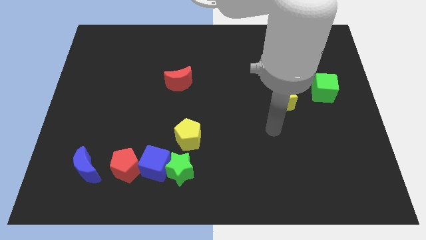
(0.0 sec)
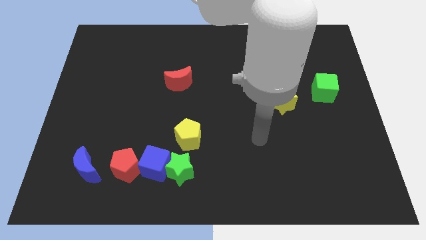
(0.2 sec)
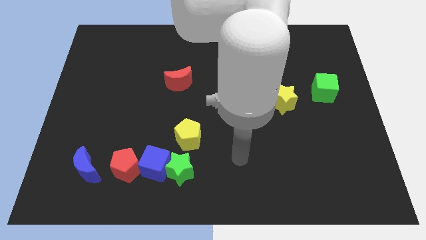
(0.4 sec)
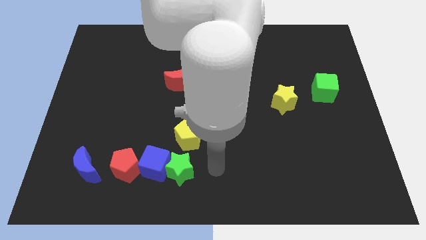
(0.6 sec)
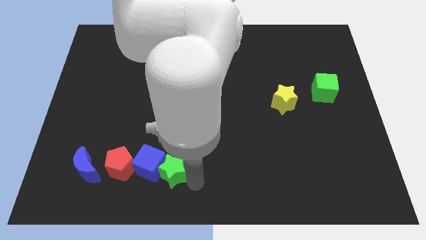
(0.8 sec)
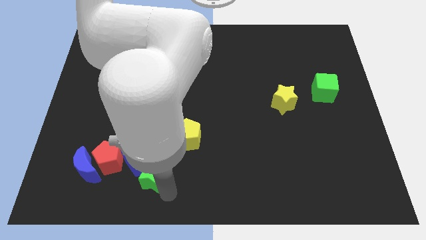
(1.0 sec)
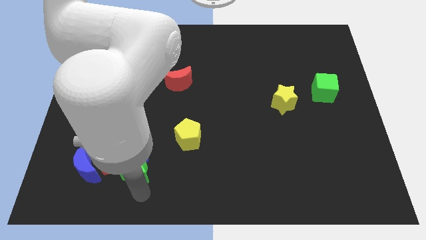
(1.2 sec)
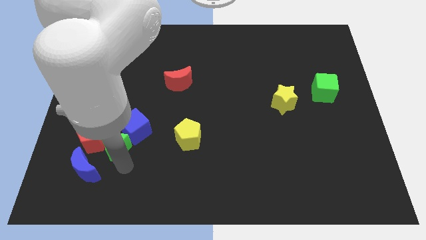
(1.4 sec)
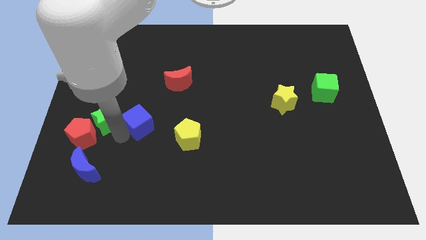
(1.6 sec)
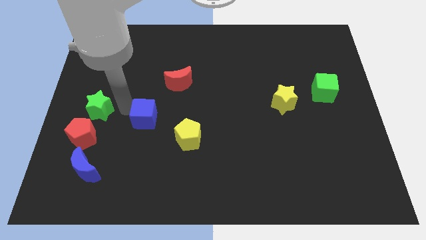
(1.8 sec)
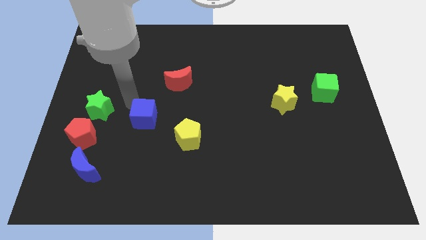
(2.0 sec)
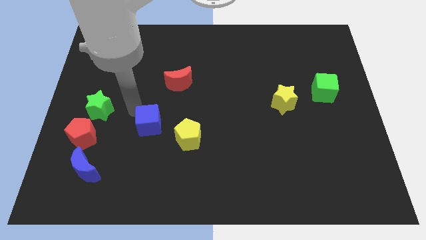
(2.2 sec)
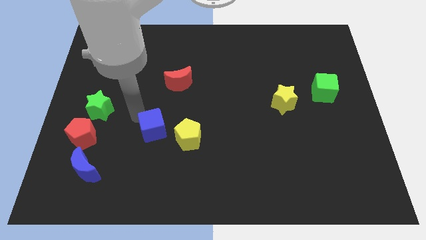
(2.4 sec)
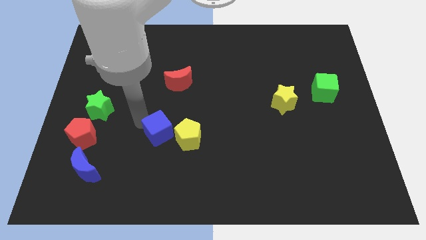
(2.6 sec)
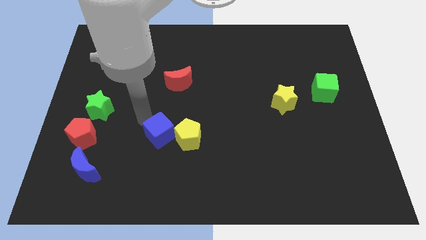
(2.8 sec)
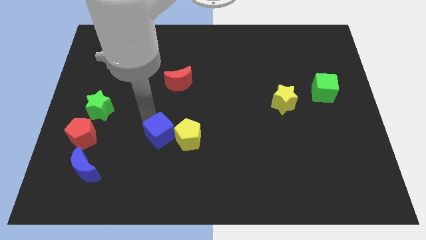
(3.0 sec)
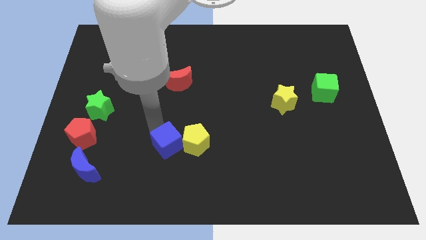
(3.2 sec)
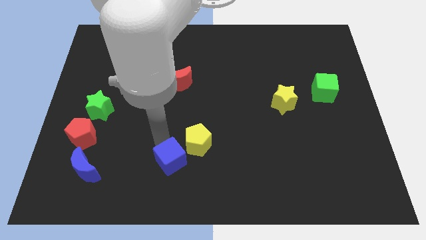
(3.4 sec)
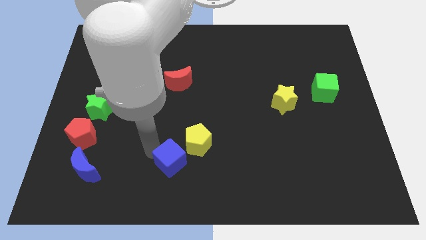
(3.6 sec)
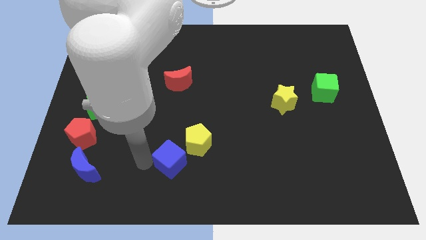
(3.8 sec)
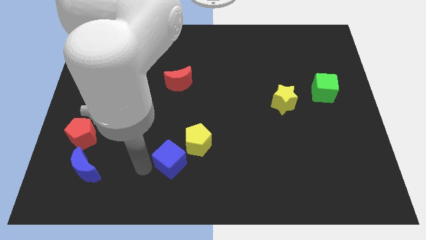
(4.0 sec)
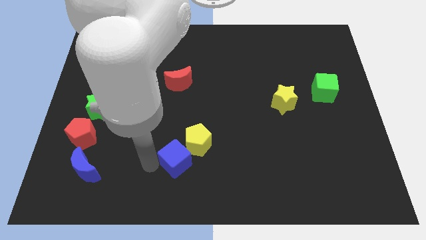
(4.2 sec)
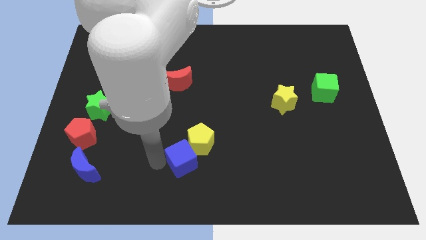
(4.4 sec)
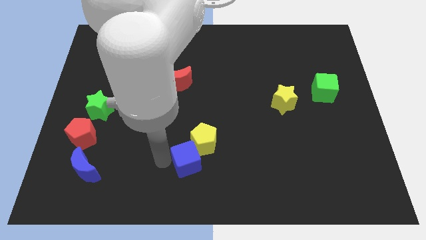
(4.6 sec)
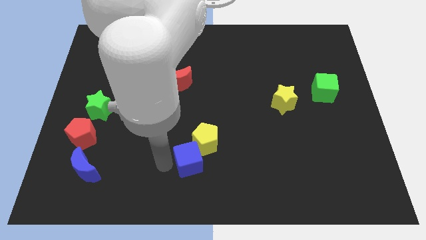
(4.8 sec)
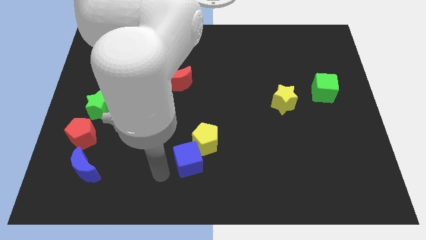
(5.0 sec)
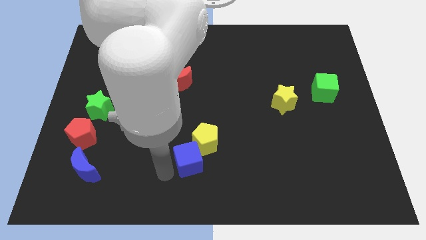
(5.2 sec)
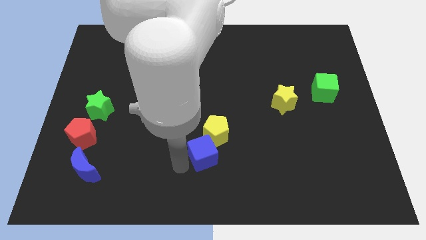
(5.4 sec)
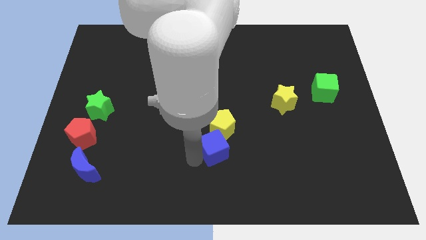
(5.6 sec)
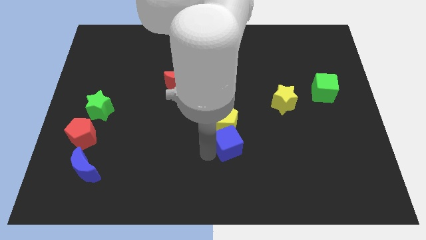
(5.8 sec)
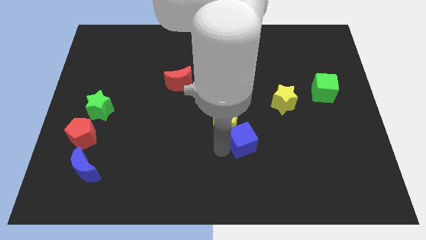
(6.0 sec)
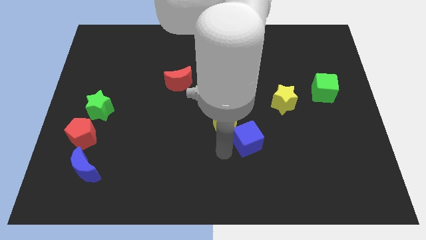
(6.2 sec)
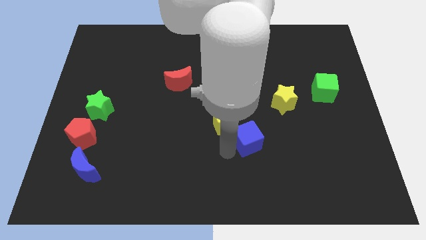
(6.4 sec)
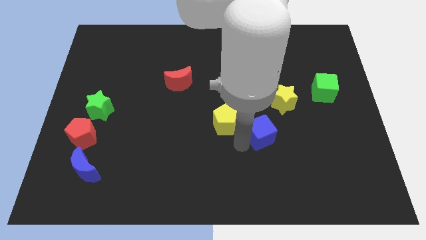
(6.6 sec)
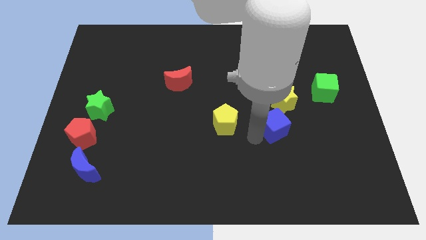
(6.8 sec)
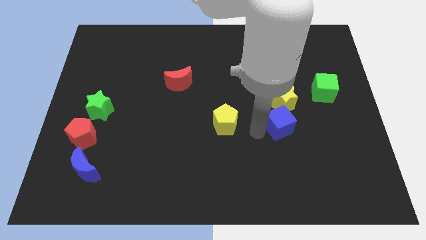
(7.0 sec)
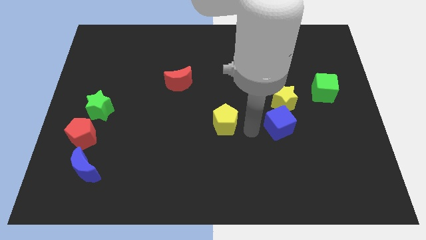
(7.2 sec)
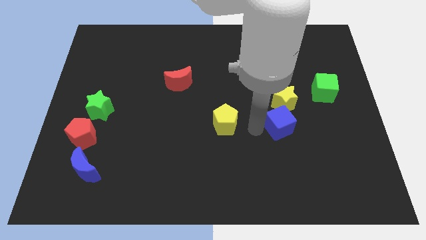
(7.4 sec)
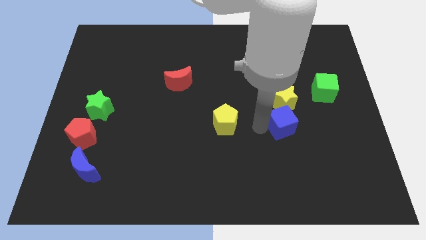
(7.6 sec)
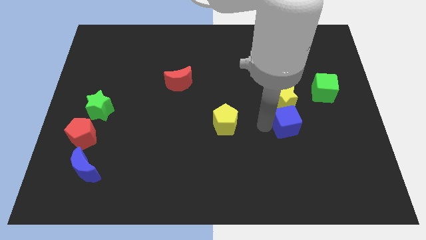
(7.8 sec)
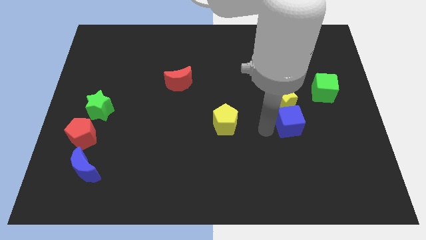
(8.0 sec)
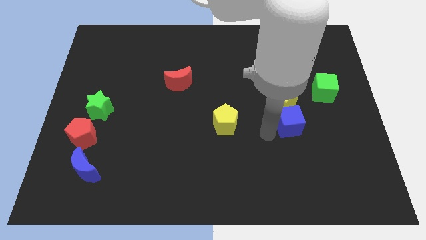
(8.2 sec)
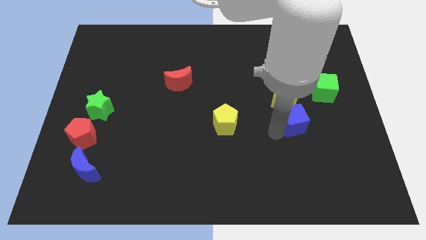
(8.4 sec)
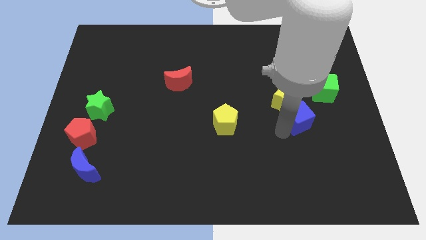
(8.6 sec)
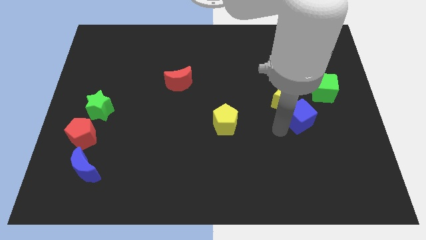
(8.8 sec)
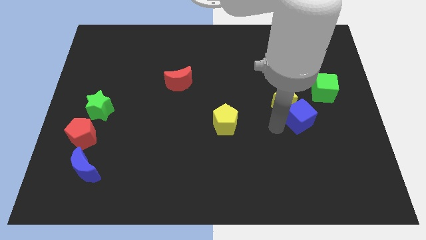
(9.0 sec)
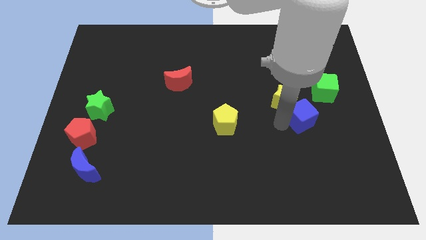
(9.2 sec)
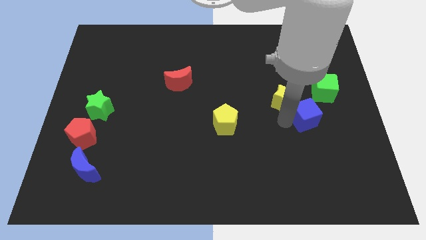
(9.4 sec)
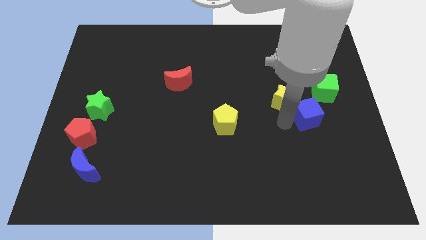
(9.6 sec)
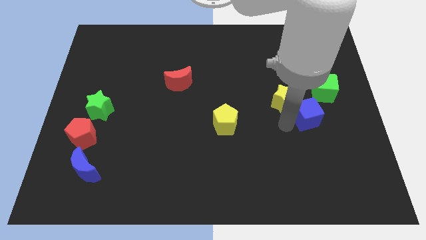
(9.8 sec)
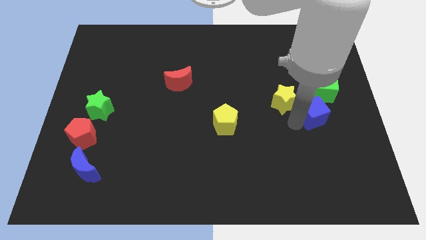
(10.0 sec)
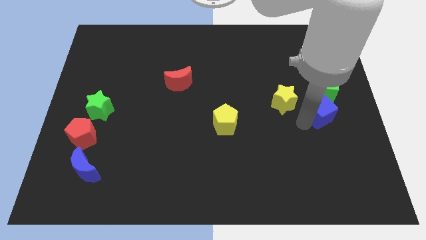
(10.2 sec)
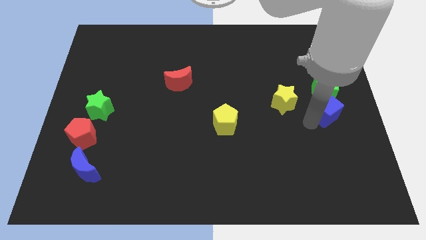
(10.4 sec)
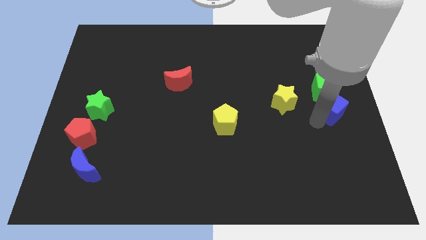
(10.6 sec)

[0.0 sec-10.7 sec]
push the blue cube to the green cube

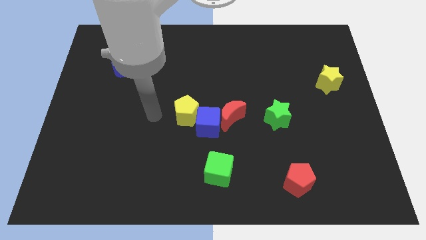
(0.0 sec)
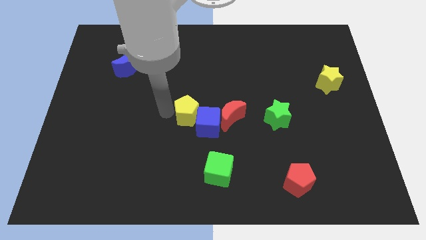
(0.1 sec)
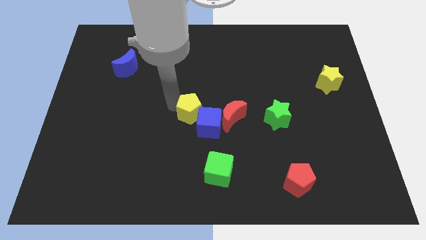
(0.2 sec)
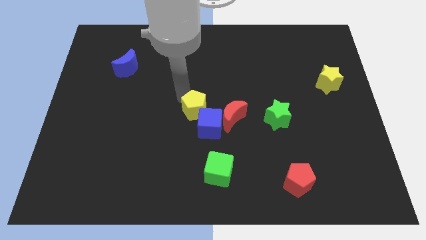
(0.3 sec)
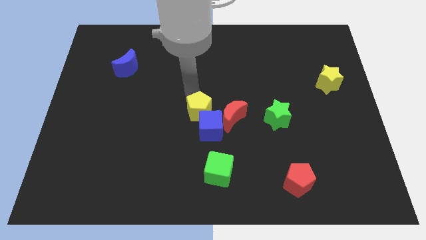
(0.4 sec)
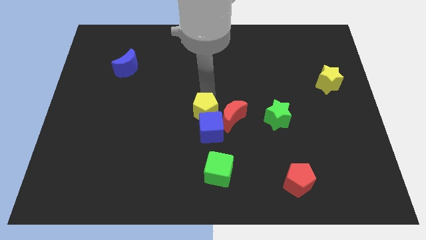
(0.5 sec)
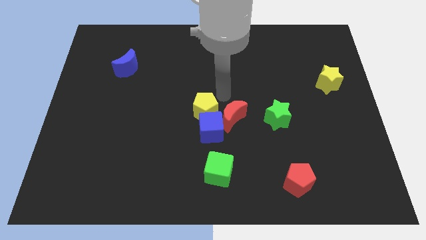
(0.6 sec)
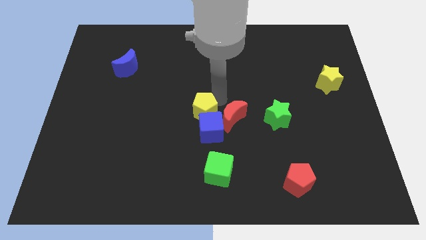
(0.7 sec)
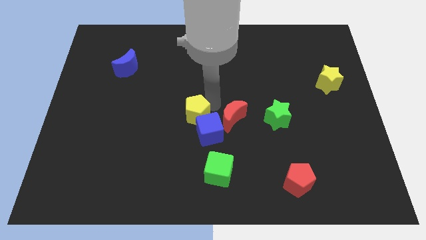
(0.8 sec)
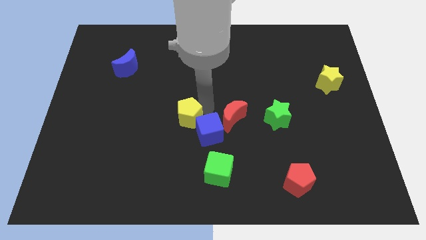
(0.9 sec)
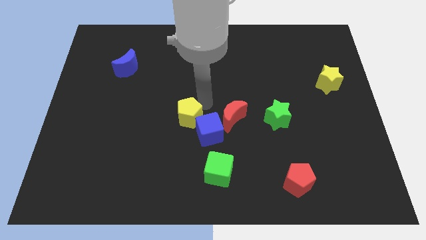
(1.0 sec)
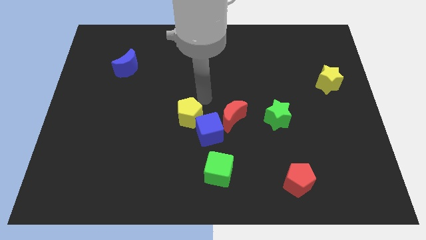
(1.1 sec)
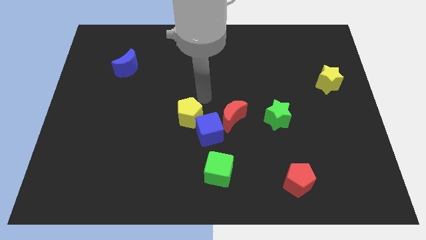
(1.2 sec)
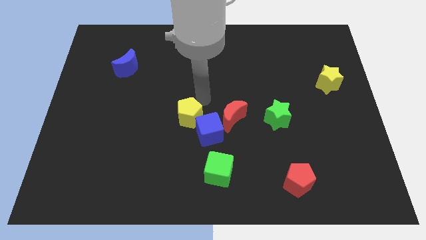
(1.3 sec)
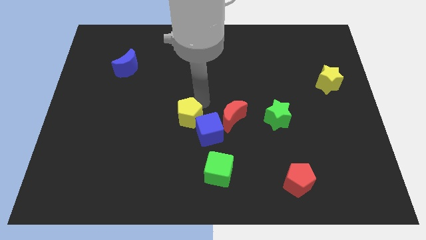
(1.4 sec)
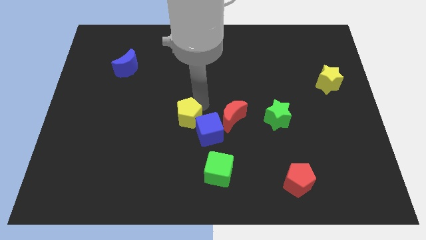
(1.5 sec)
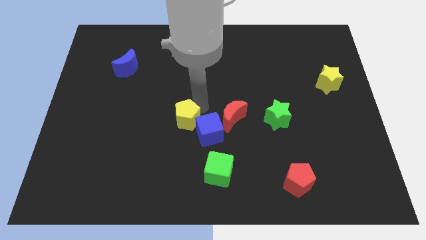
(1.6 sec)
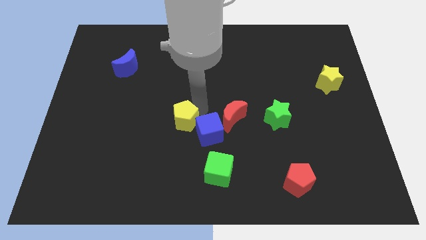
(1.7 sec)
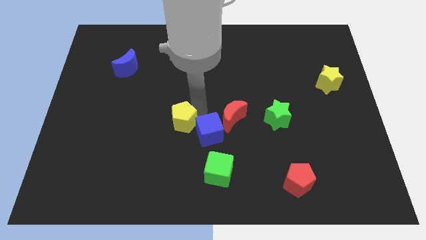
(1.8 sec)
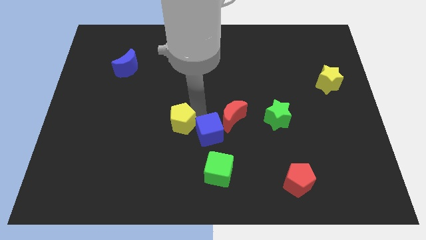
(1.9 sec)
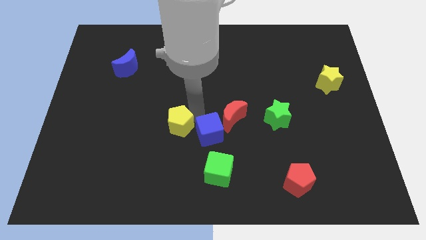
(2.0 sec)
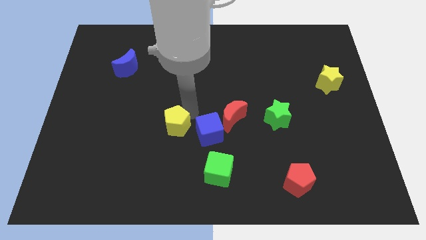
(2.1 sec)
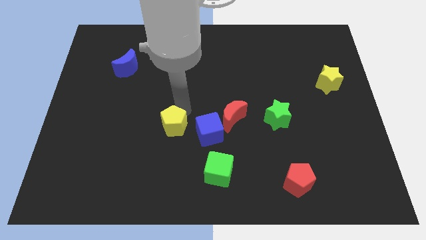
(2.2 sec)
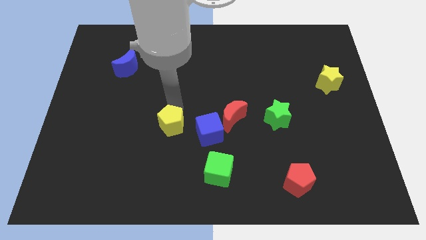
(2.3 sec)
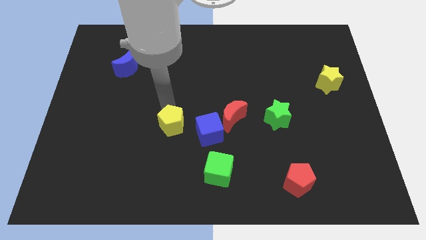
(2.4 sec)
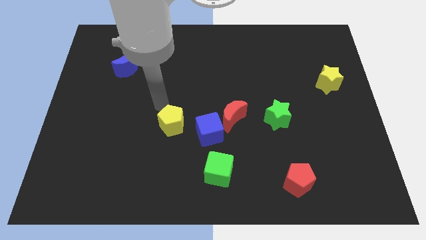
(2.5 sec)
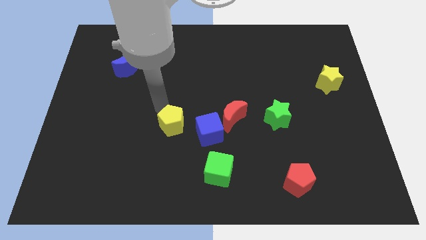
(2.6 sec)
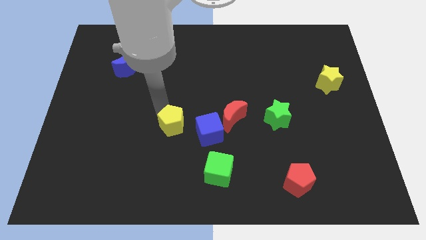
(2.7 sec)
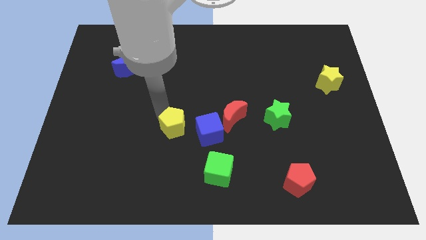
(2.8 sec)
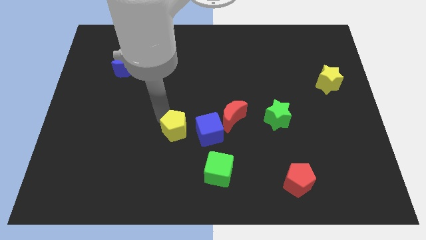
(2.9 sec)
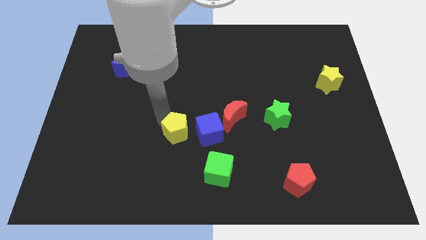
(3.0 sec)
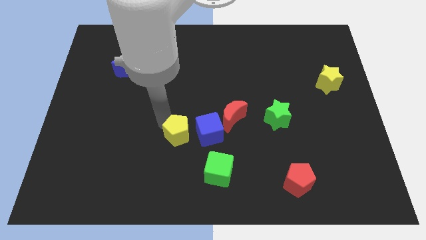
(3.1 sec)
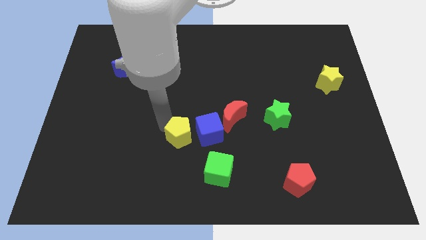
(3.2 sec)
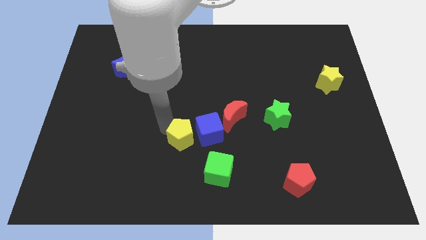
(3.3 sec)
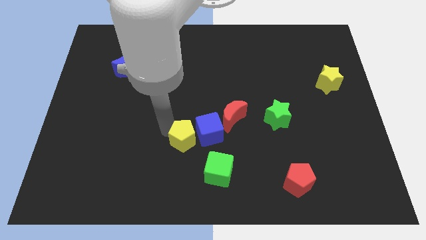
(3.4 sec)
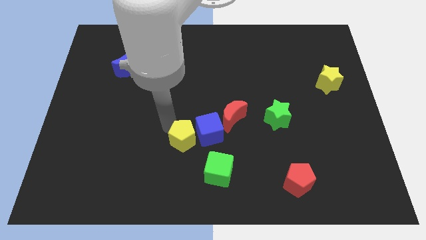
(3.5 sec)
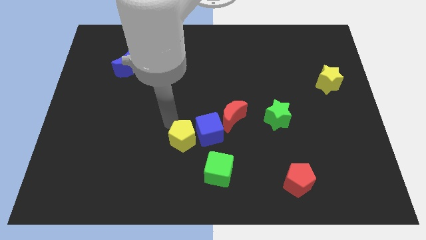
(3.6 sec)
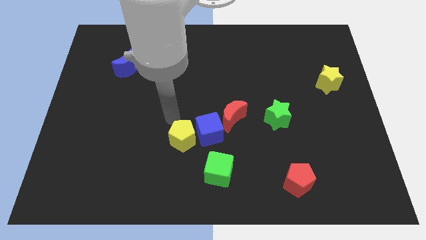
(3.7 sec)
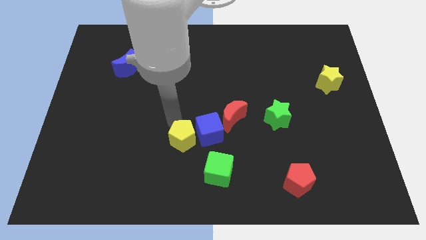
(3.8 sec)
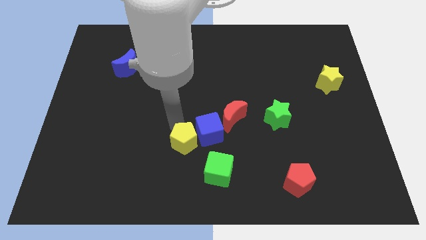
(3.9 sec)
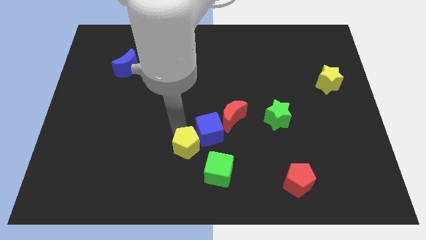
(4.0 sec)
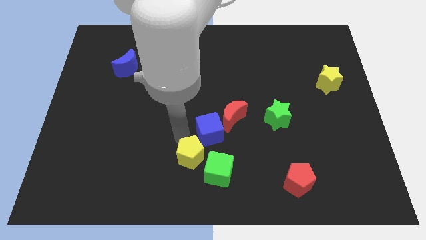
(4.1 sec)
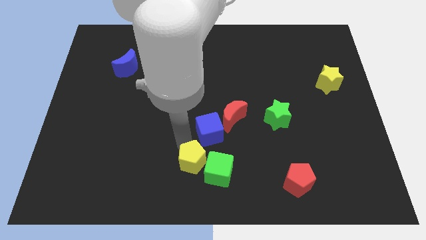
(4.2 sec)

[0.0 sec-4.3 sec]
put the yellow pentagon next to the green cube
